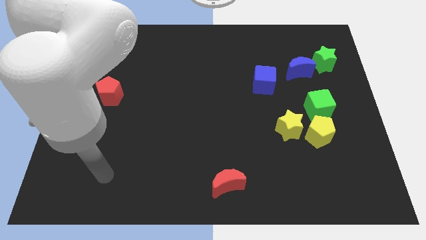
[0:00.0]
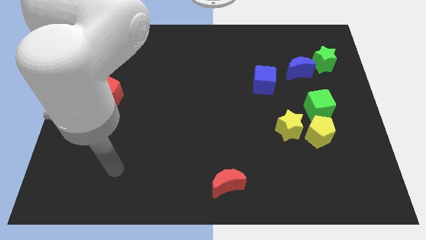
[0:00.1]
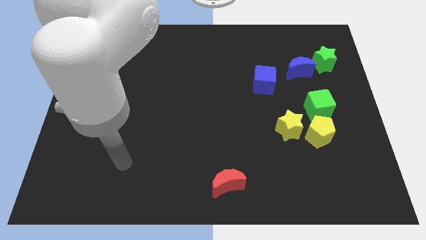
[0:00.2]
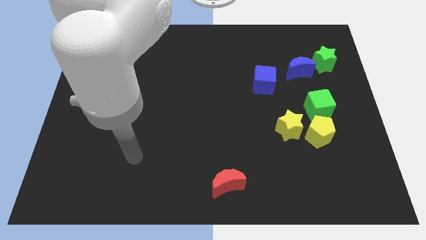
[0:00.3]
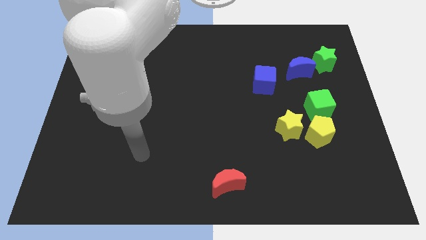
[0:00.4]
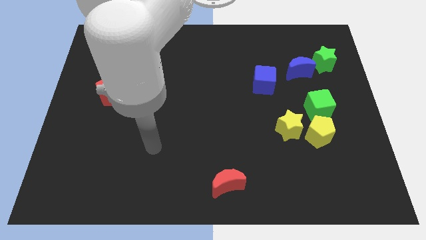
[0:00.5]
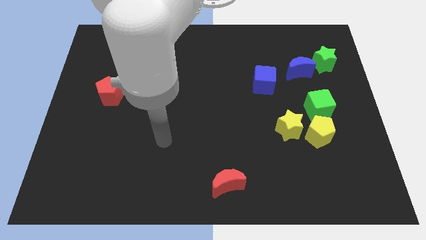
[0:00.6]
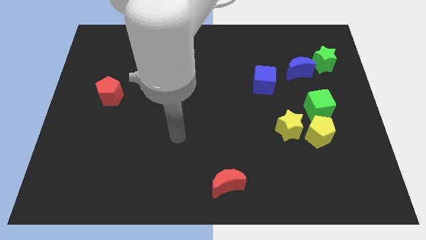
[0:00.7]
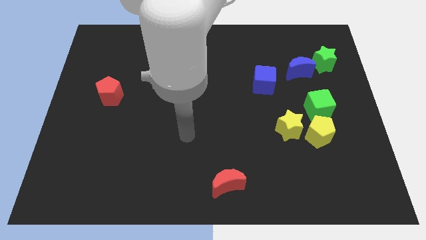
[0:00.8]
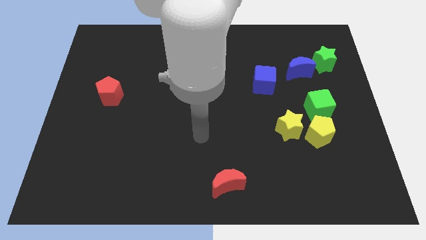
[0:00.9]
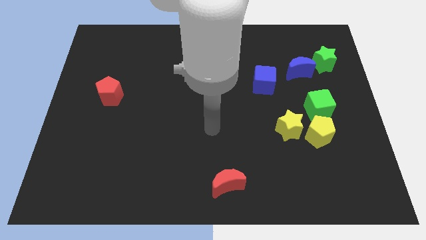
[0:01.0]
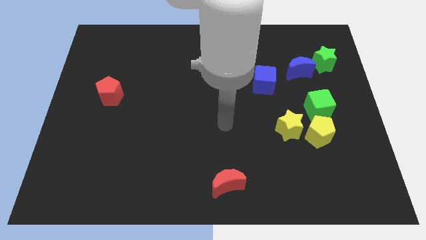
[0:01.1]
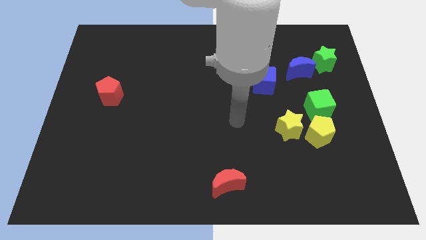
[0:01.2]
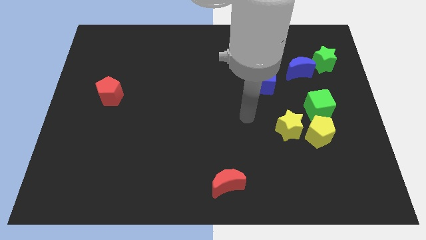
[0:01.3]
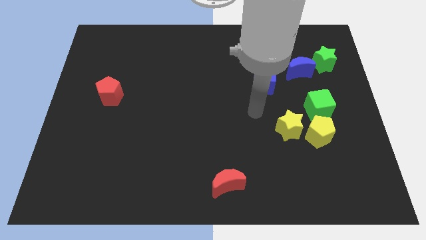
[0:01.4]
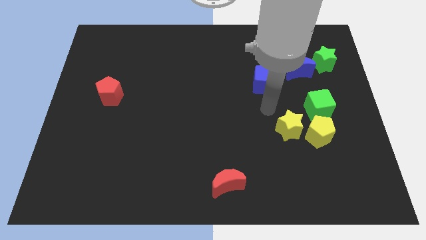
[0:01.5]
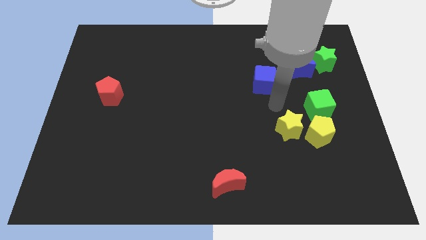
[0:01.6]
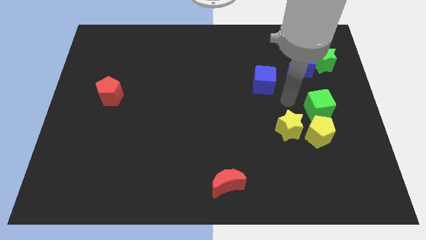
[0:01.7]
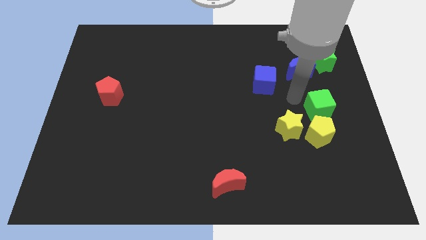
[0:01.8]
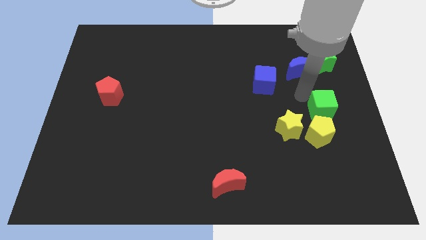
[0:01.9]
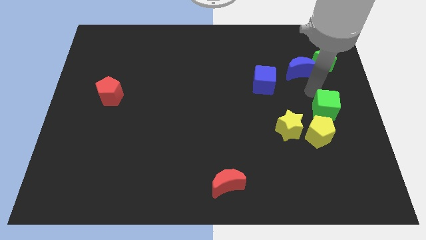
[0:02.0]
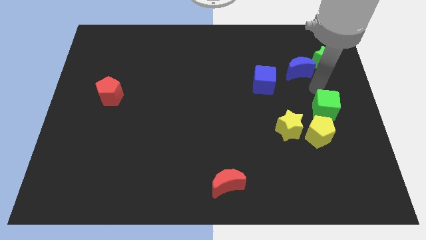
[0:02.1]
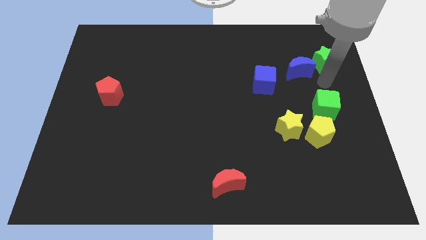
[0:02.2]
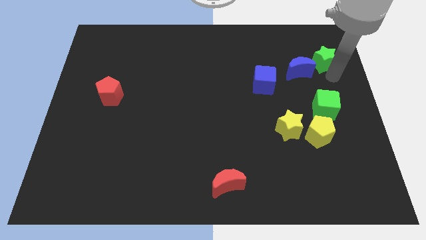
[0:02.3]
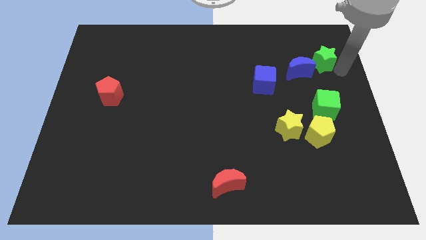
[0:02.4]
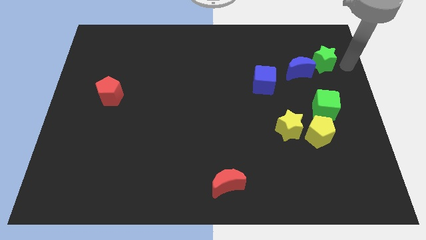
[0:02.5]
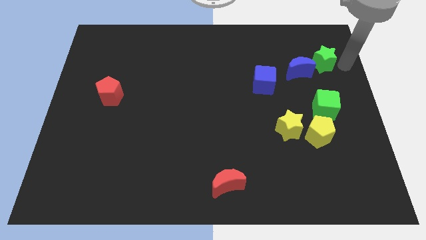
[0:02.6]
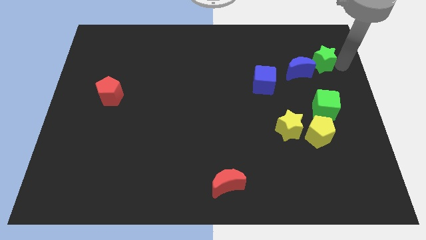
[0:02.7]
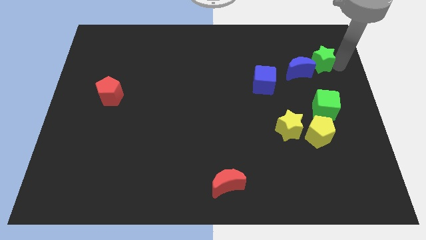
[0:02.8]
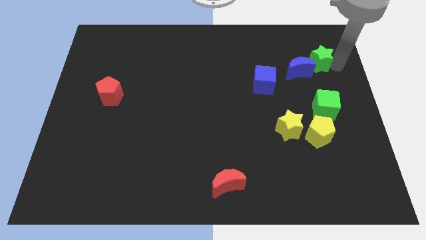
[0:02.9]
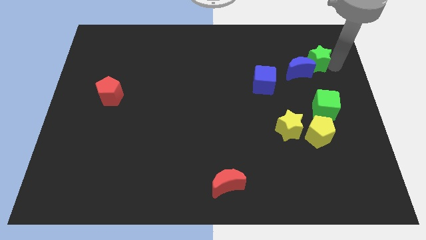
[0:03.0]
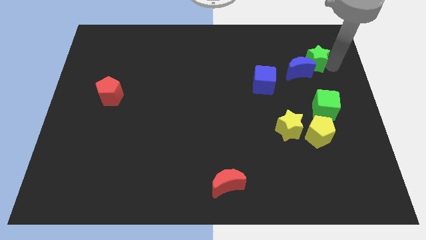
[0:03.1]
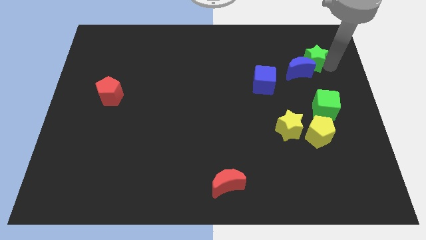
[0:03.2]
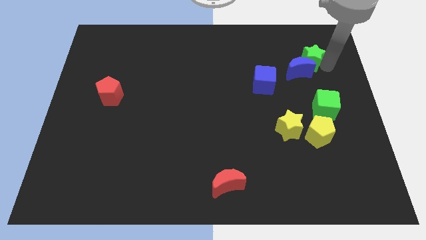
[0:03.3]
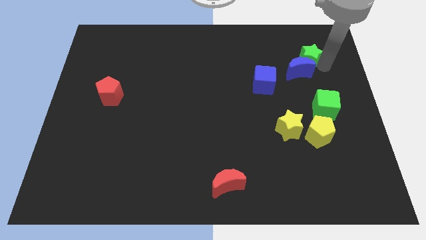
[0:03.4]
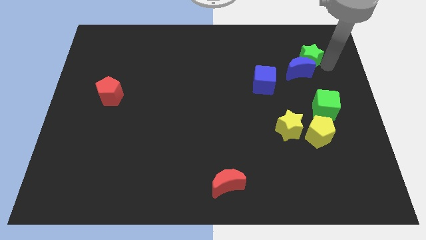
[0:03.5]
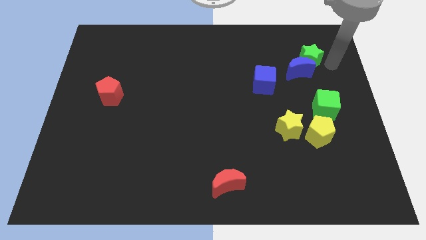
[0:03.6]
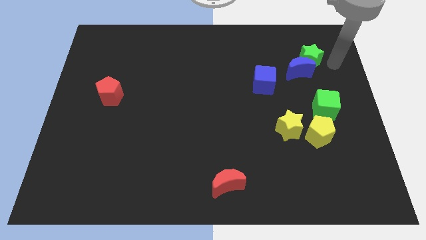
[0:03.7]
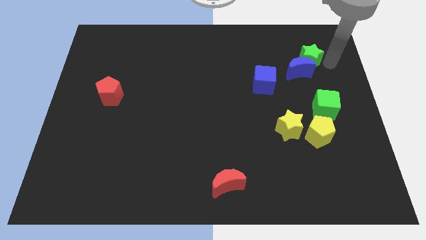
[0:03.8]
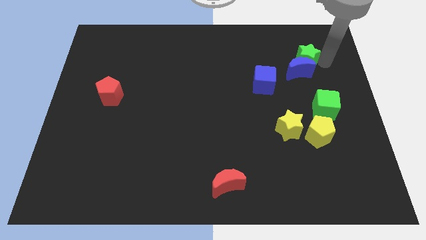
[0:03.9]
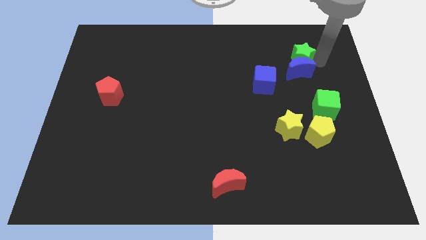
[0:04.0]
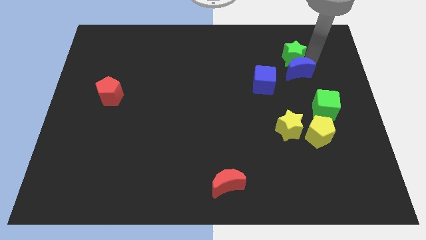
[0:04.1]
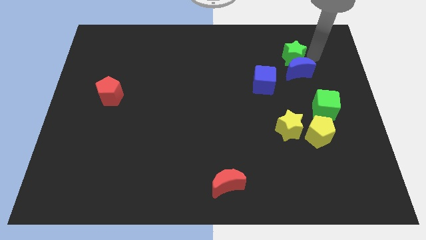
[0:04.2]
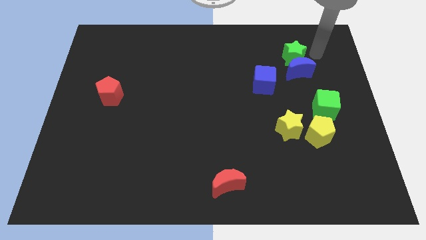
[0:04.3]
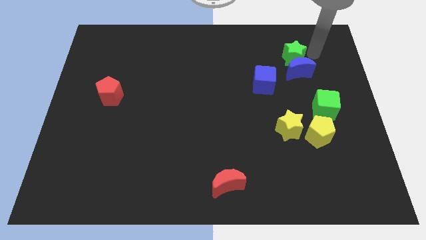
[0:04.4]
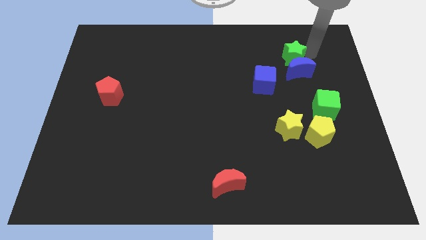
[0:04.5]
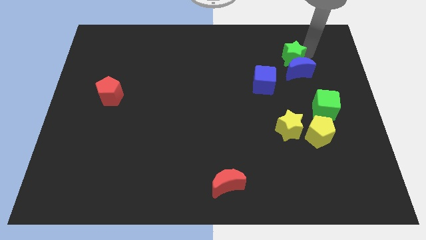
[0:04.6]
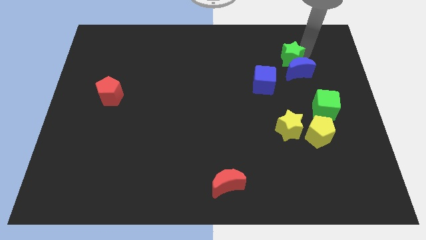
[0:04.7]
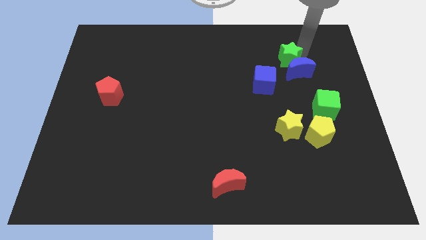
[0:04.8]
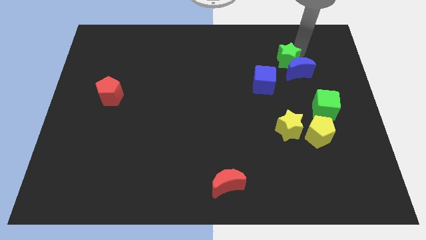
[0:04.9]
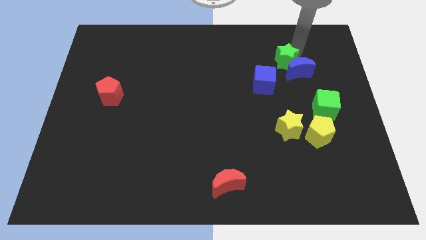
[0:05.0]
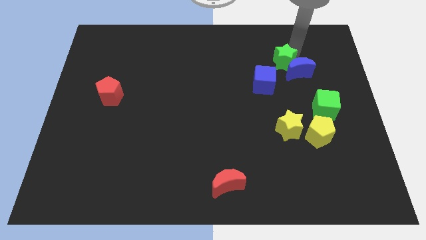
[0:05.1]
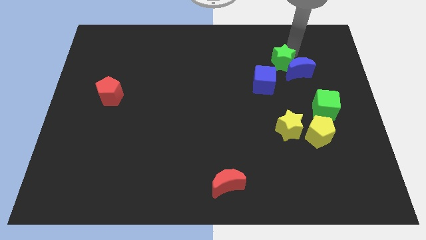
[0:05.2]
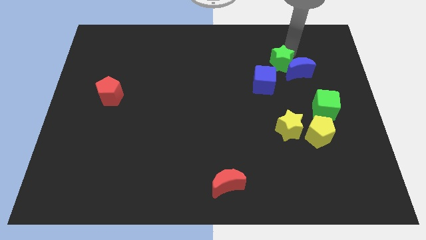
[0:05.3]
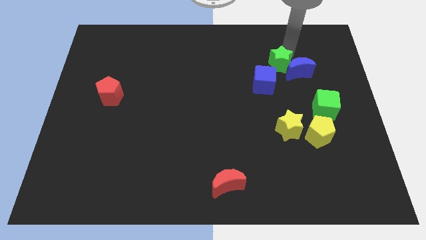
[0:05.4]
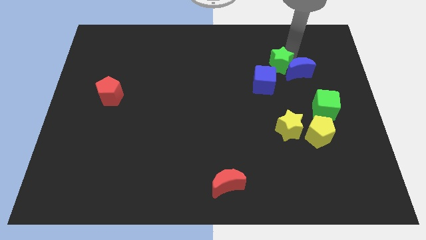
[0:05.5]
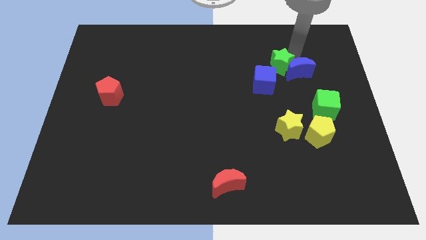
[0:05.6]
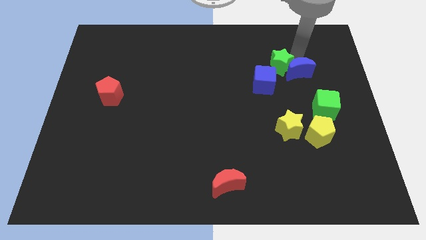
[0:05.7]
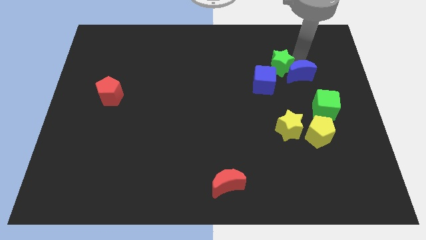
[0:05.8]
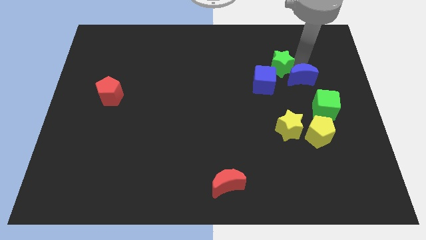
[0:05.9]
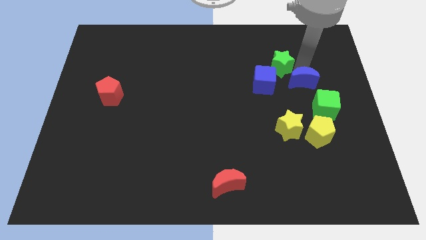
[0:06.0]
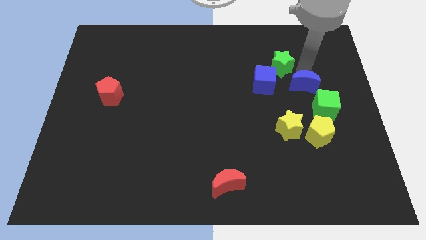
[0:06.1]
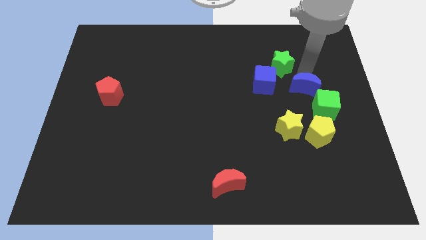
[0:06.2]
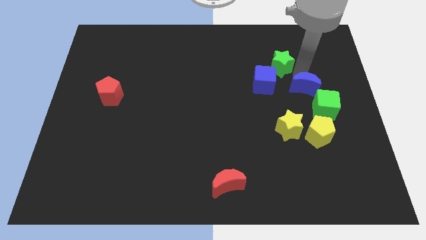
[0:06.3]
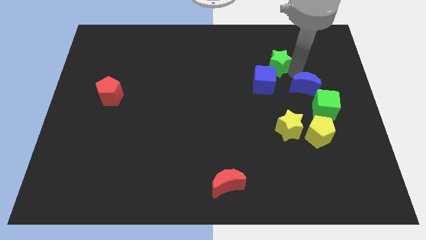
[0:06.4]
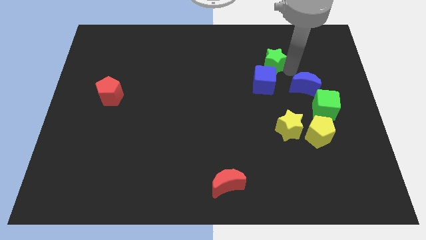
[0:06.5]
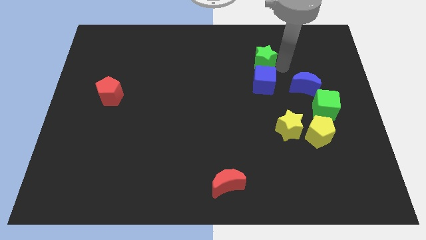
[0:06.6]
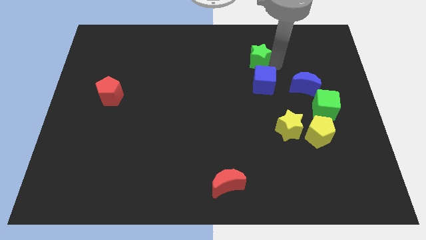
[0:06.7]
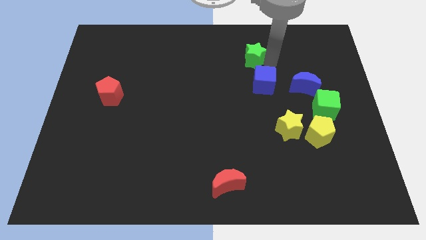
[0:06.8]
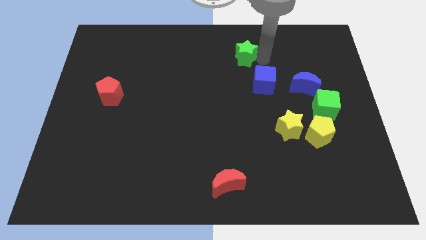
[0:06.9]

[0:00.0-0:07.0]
push the green star left

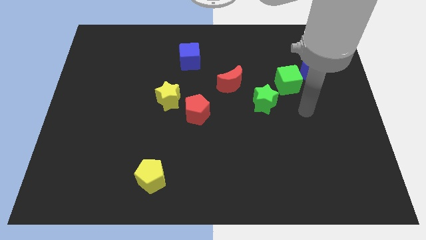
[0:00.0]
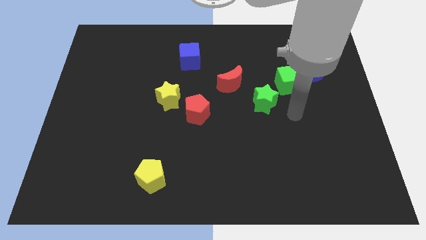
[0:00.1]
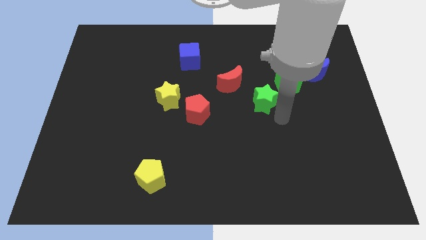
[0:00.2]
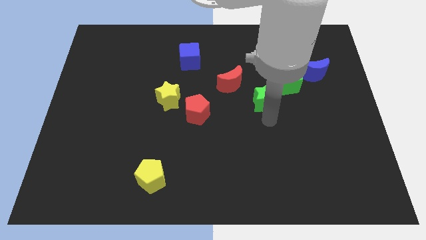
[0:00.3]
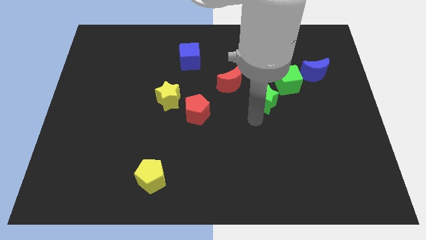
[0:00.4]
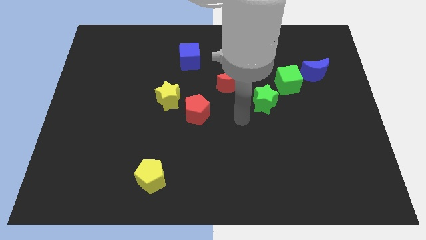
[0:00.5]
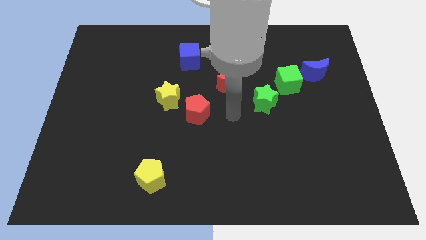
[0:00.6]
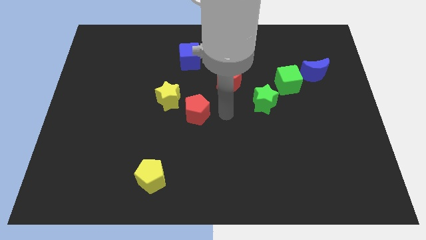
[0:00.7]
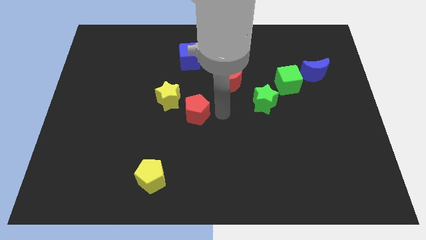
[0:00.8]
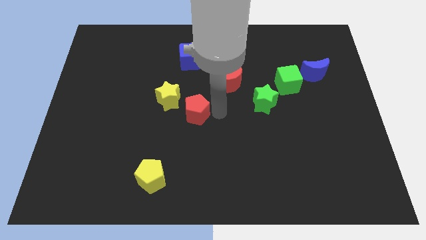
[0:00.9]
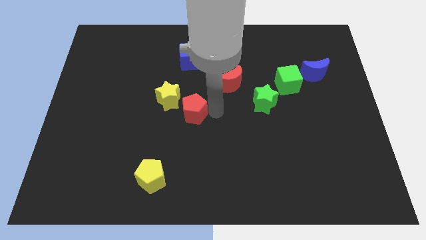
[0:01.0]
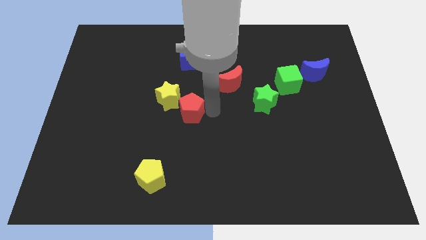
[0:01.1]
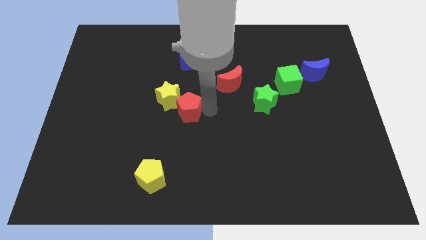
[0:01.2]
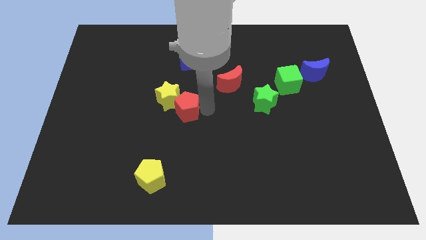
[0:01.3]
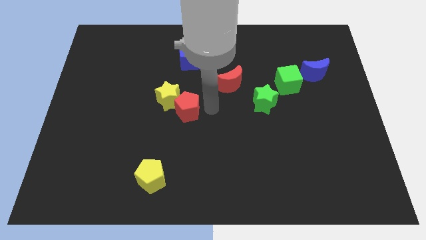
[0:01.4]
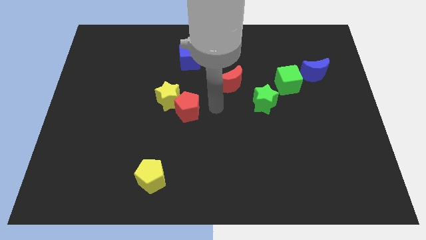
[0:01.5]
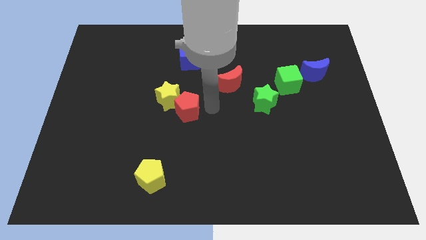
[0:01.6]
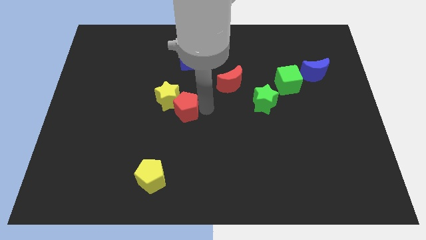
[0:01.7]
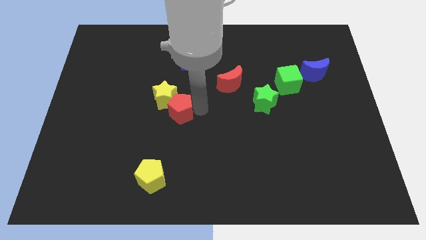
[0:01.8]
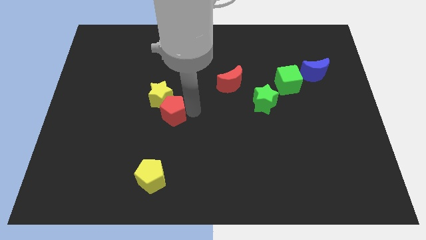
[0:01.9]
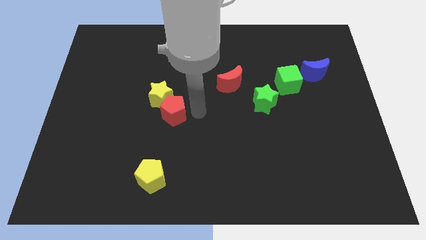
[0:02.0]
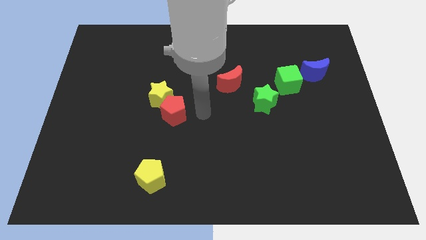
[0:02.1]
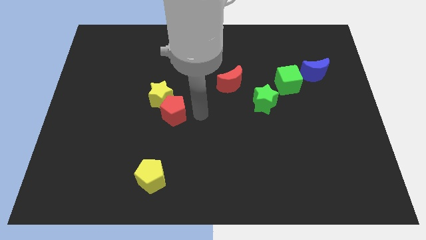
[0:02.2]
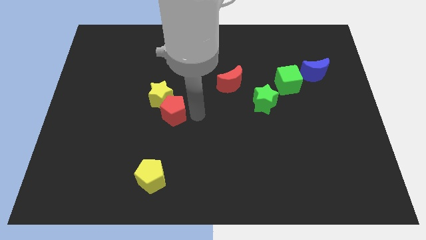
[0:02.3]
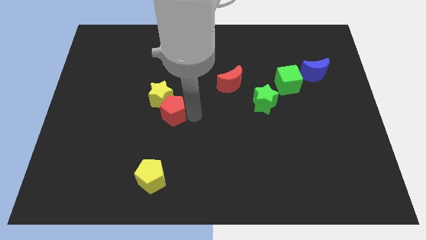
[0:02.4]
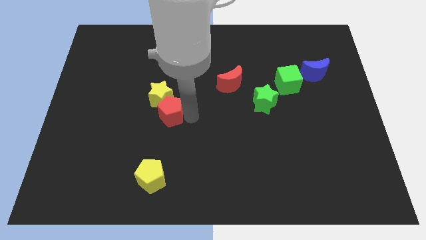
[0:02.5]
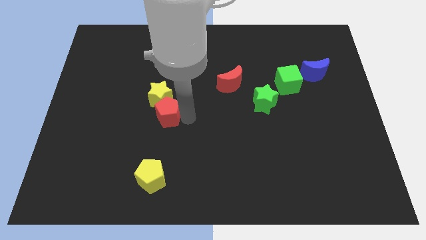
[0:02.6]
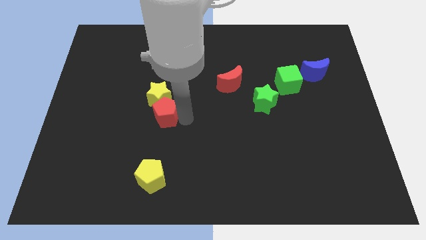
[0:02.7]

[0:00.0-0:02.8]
move the red pentagon somewhat left
